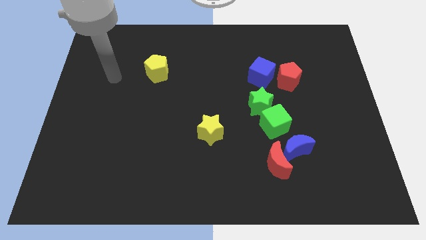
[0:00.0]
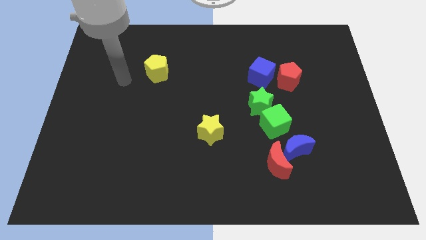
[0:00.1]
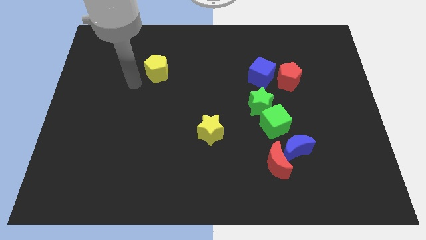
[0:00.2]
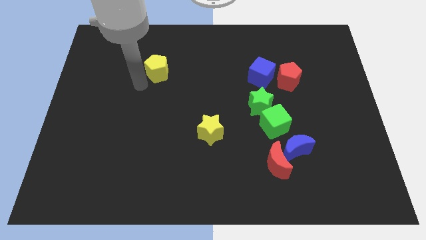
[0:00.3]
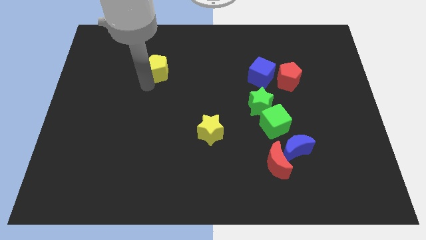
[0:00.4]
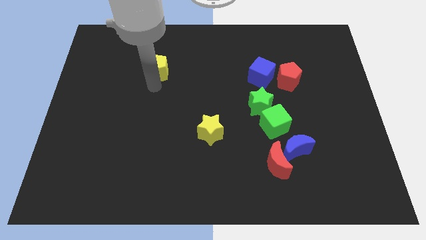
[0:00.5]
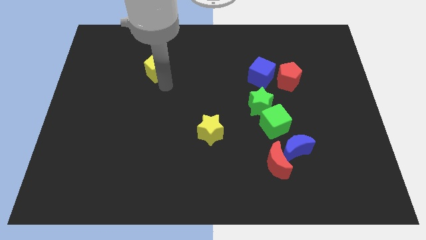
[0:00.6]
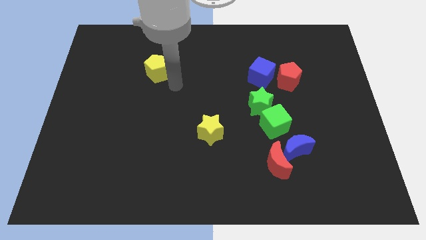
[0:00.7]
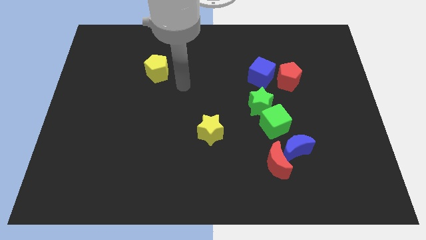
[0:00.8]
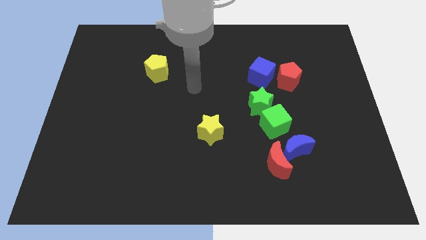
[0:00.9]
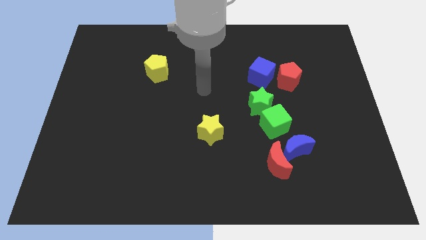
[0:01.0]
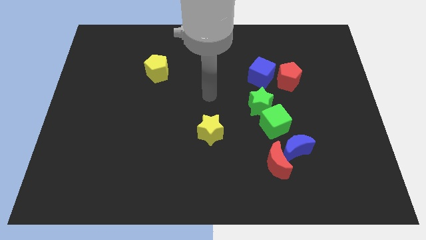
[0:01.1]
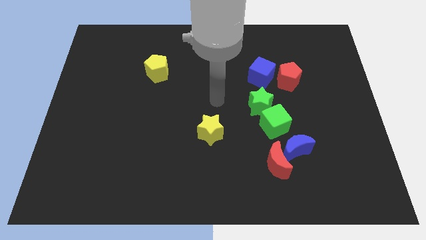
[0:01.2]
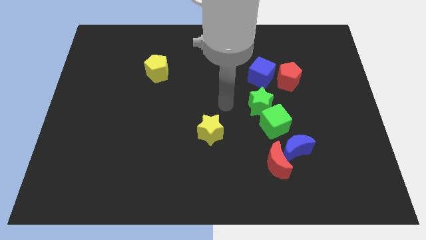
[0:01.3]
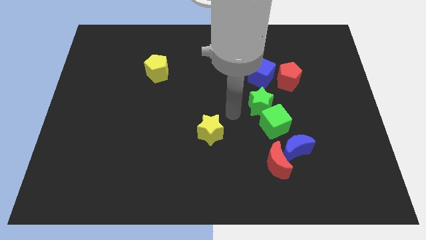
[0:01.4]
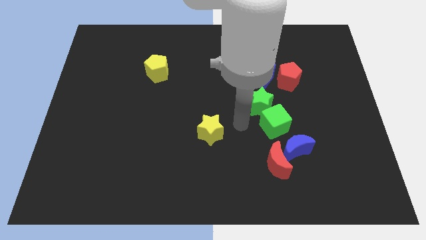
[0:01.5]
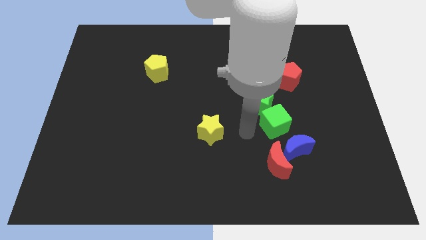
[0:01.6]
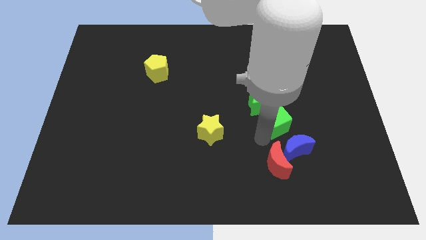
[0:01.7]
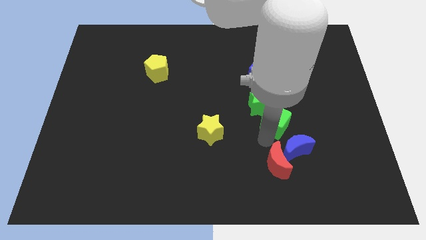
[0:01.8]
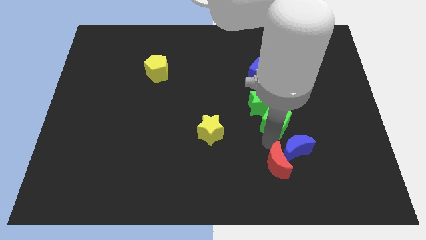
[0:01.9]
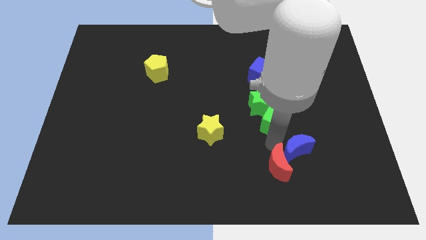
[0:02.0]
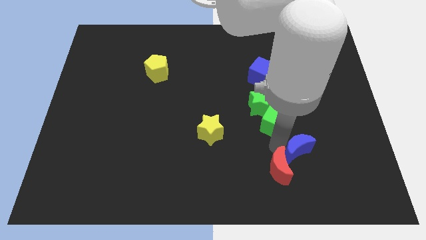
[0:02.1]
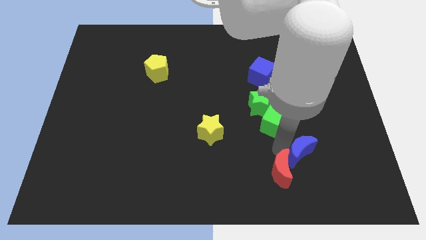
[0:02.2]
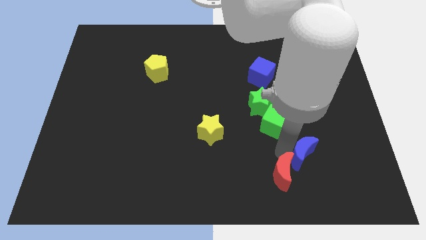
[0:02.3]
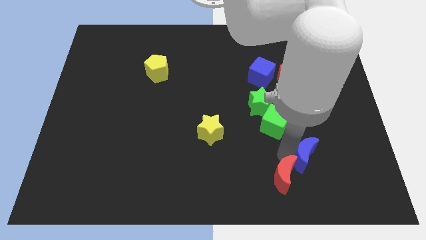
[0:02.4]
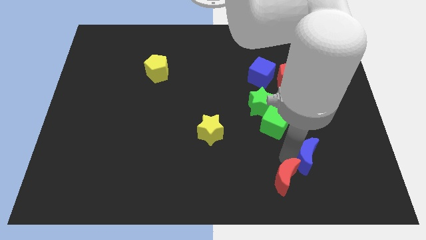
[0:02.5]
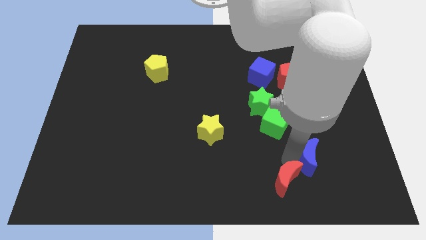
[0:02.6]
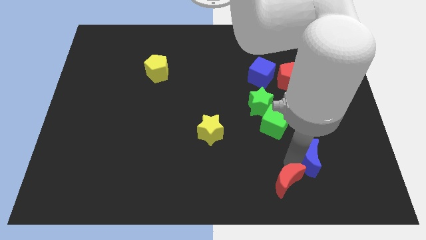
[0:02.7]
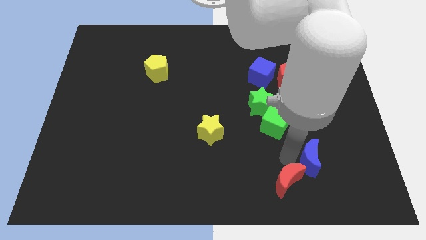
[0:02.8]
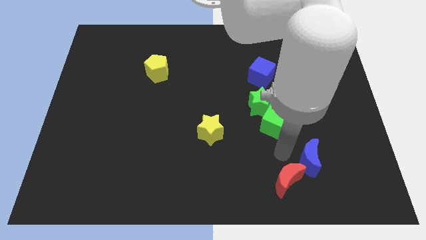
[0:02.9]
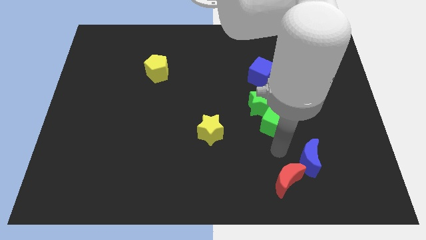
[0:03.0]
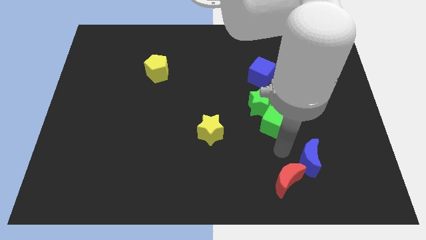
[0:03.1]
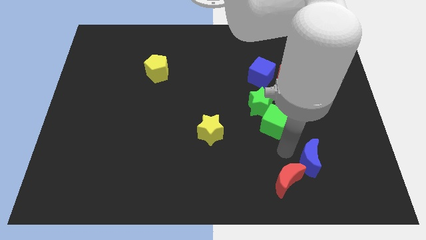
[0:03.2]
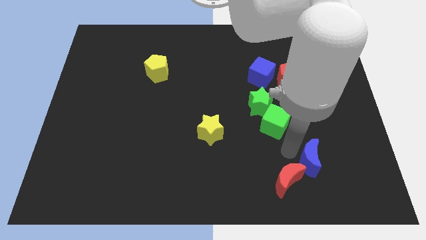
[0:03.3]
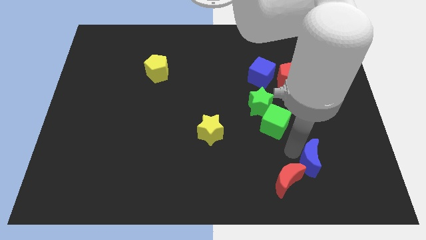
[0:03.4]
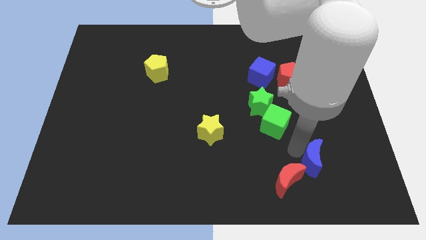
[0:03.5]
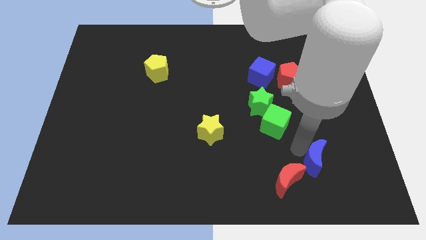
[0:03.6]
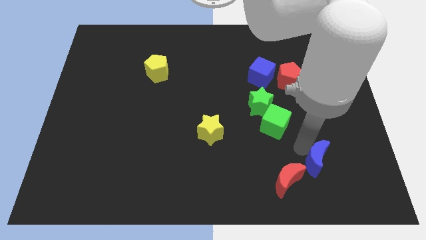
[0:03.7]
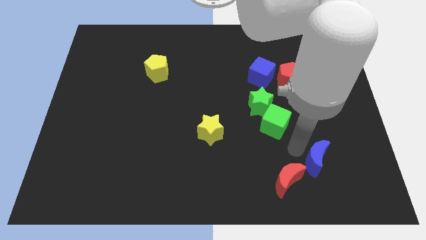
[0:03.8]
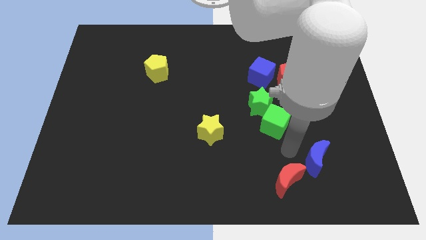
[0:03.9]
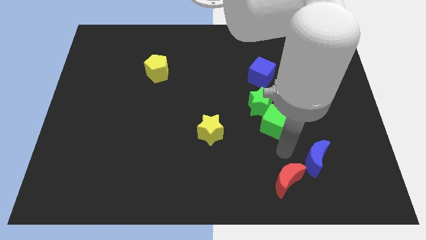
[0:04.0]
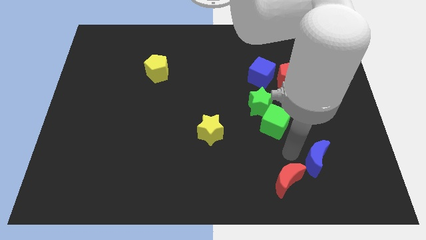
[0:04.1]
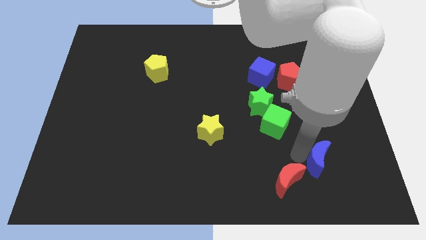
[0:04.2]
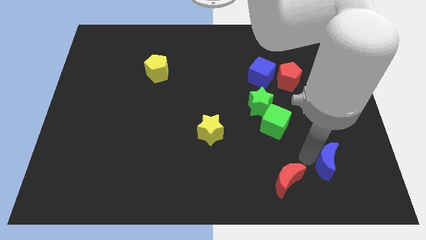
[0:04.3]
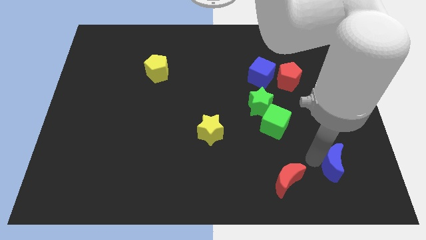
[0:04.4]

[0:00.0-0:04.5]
pull the blue moon apart from the red moon and green cube

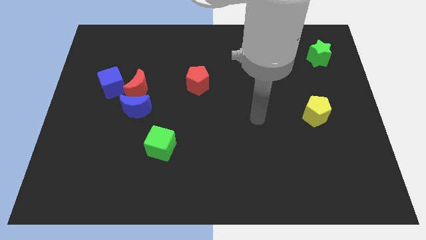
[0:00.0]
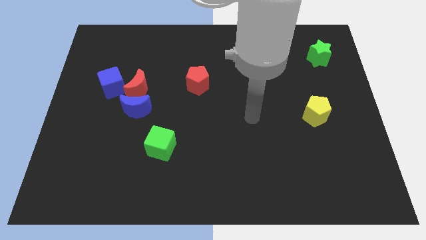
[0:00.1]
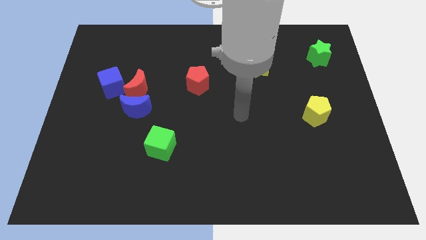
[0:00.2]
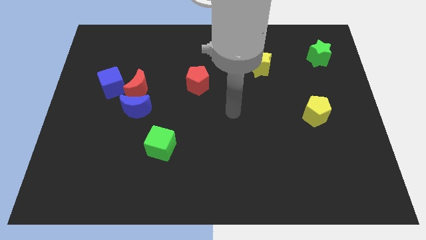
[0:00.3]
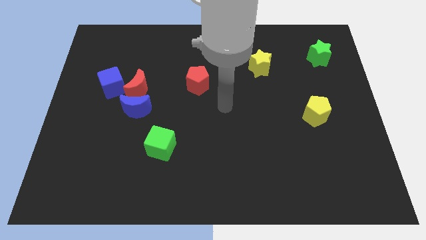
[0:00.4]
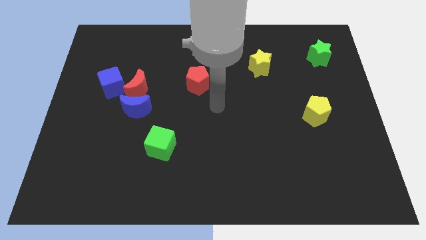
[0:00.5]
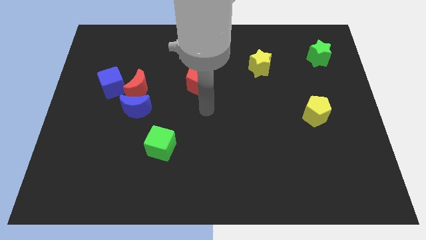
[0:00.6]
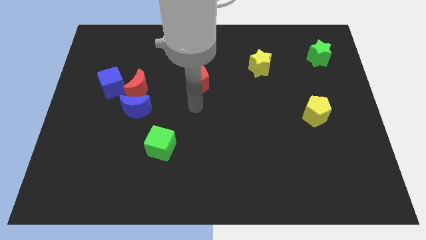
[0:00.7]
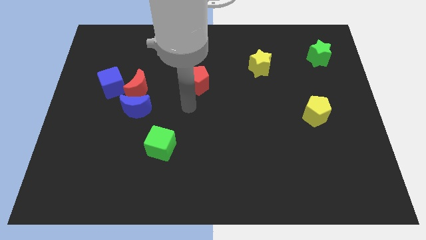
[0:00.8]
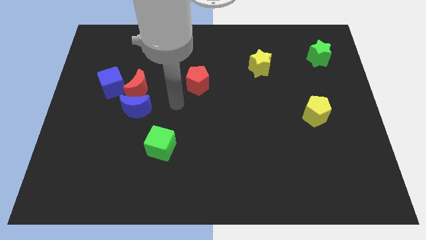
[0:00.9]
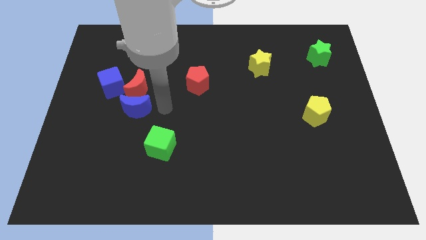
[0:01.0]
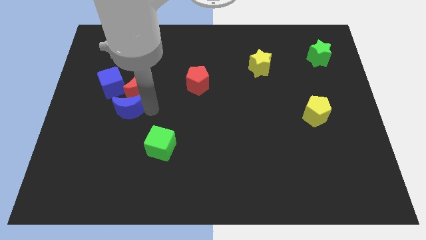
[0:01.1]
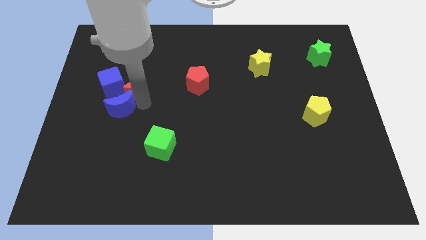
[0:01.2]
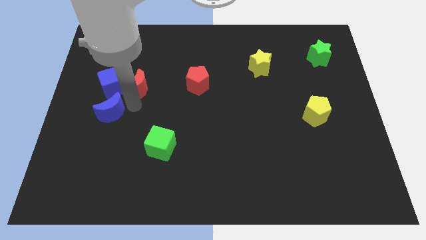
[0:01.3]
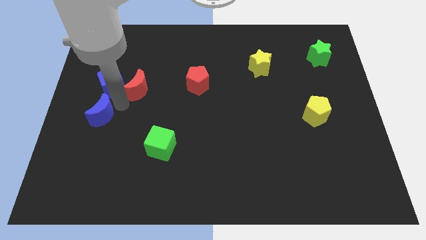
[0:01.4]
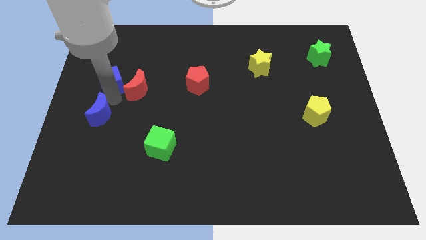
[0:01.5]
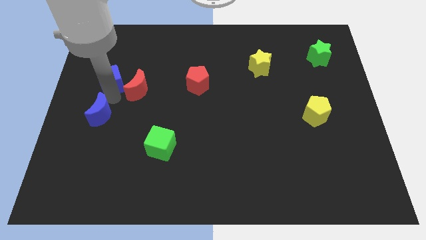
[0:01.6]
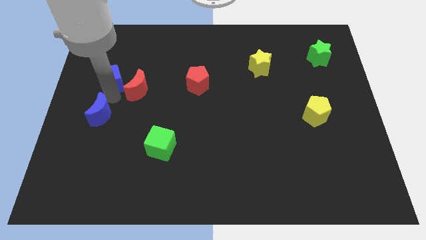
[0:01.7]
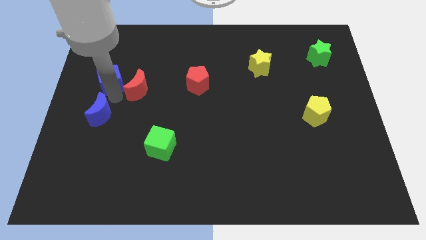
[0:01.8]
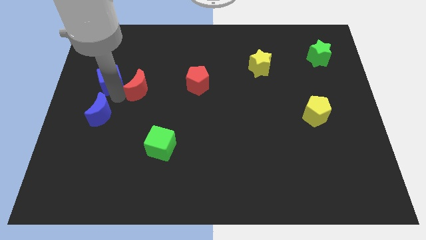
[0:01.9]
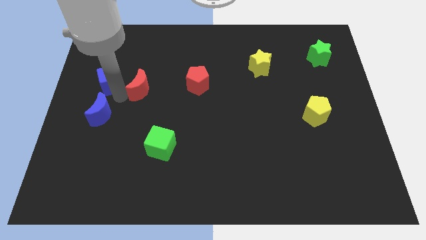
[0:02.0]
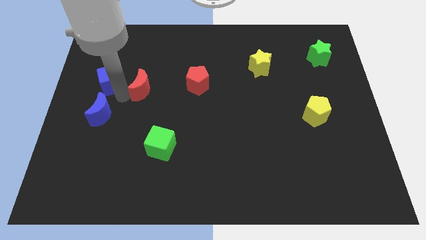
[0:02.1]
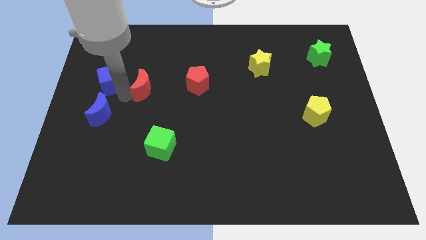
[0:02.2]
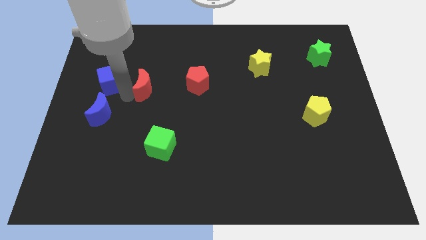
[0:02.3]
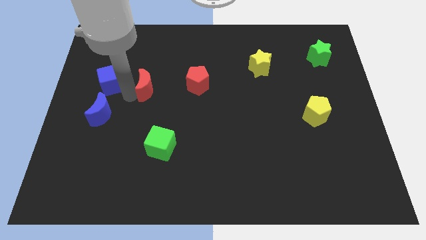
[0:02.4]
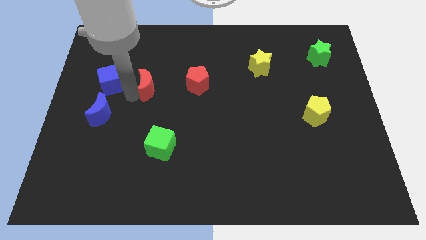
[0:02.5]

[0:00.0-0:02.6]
move the red moon away from the blue moon and blue cube

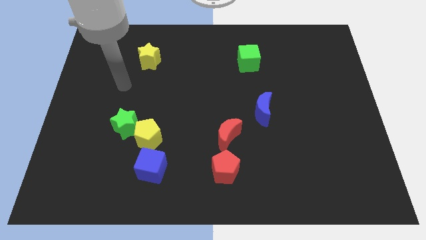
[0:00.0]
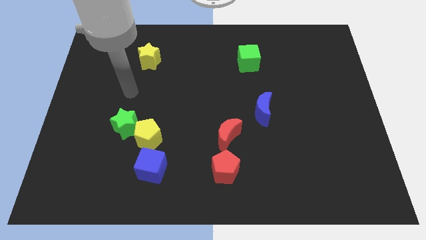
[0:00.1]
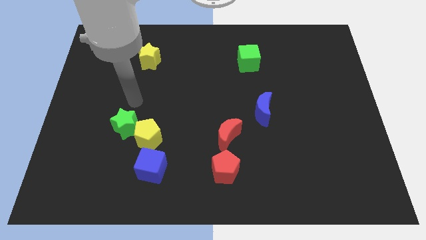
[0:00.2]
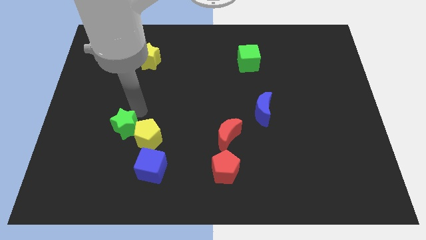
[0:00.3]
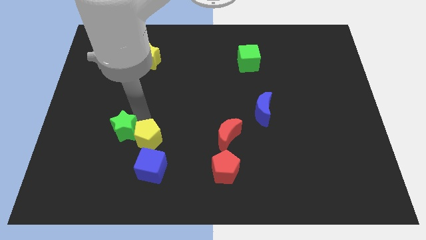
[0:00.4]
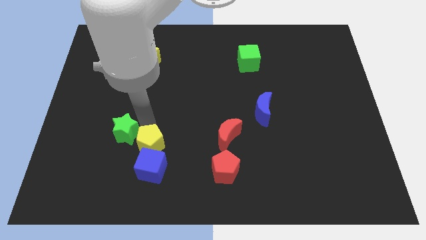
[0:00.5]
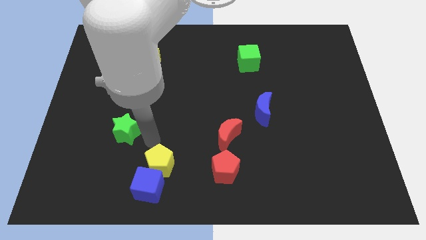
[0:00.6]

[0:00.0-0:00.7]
separate the green star from the yellow pentagon

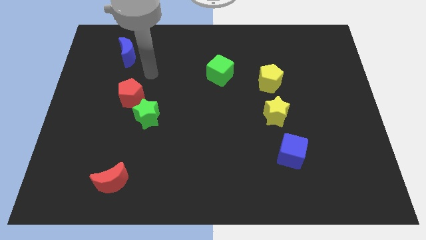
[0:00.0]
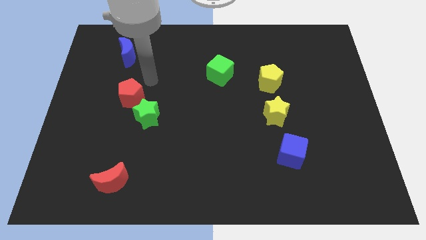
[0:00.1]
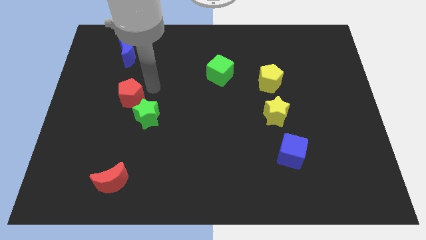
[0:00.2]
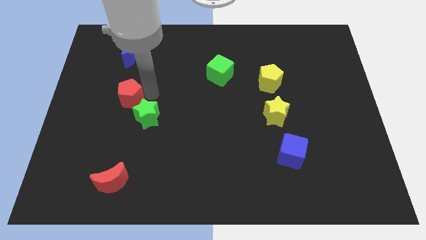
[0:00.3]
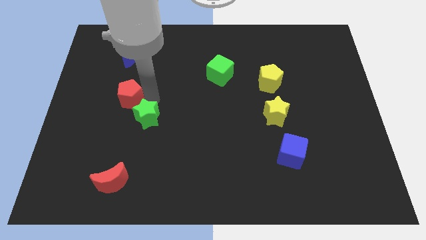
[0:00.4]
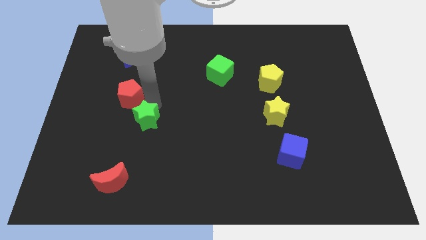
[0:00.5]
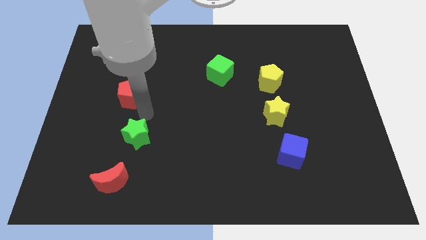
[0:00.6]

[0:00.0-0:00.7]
separate the red pentagon from the green star

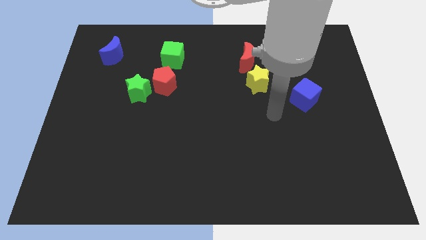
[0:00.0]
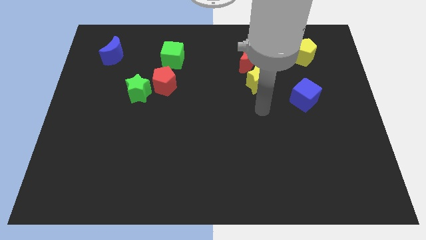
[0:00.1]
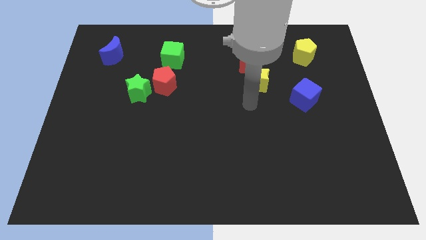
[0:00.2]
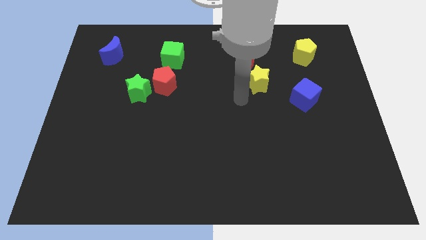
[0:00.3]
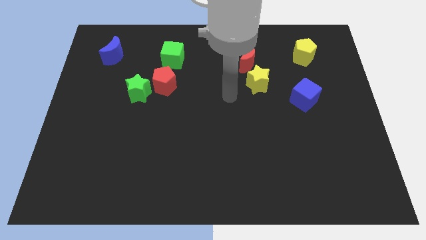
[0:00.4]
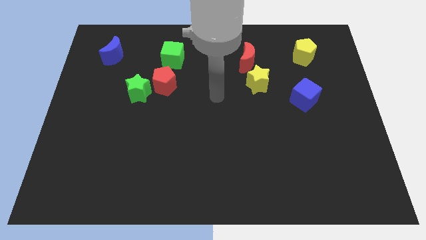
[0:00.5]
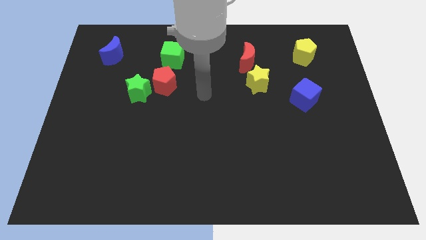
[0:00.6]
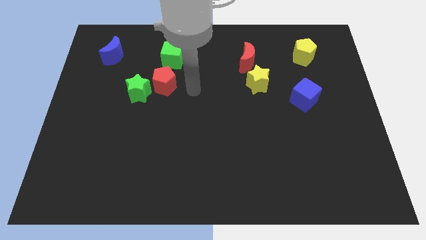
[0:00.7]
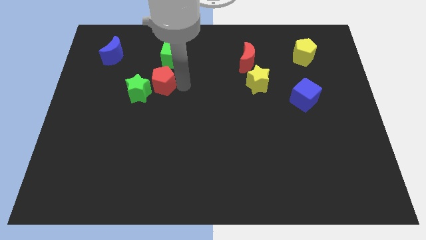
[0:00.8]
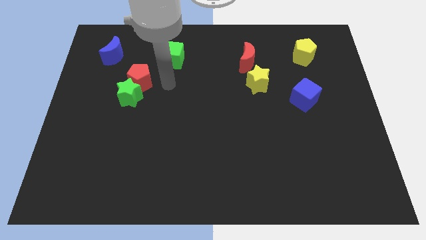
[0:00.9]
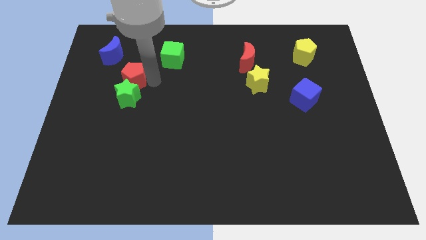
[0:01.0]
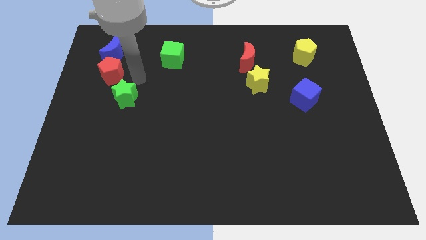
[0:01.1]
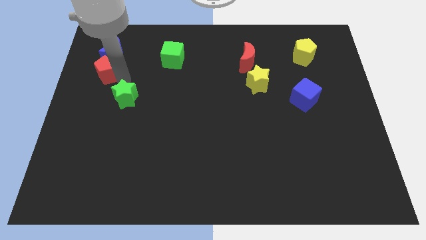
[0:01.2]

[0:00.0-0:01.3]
move the green star away from the red pentagon
